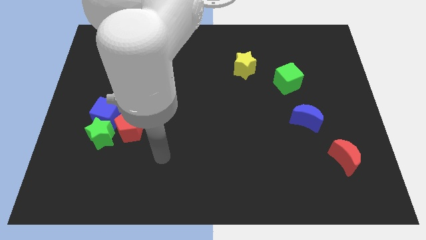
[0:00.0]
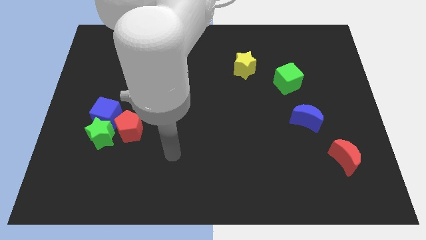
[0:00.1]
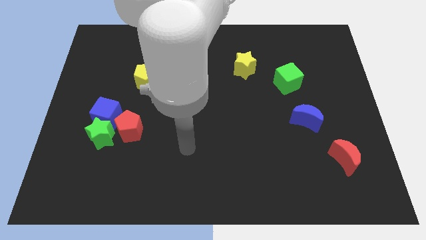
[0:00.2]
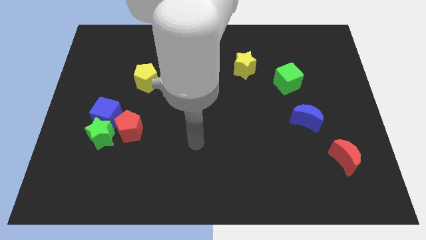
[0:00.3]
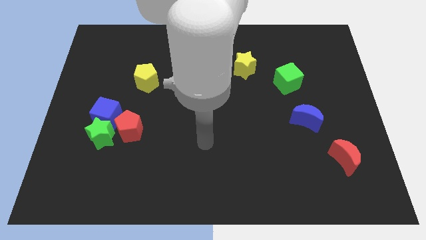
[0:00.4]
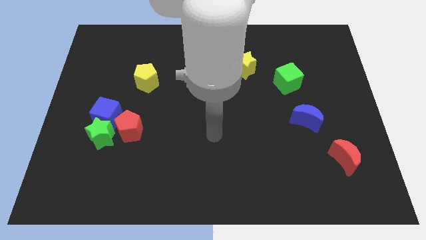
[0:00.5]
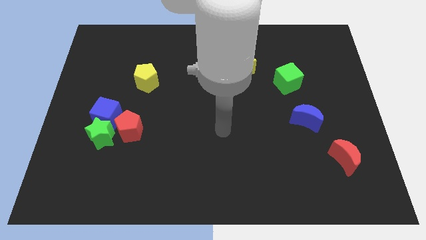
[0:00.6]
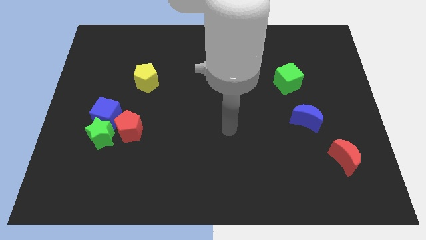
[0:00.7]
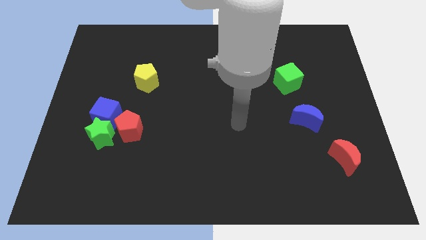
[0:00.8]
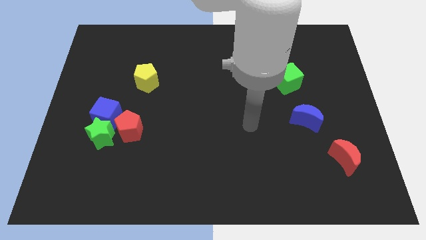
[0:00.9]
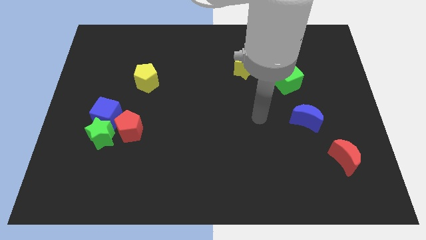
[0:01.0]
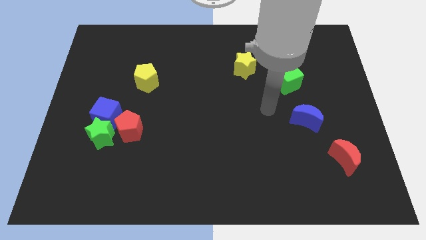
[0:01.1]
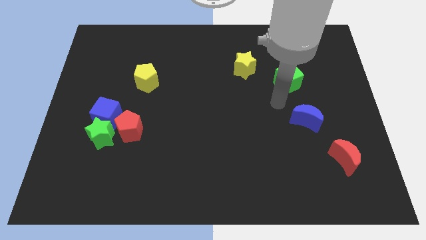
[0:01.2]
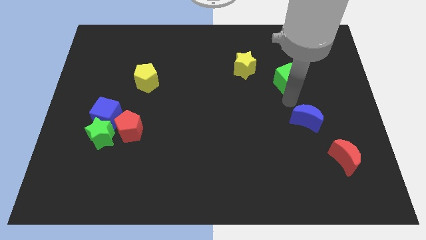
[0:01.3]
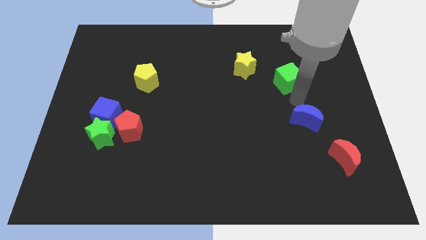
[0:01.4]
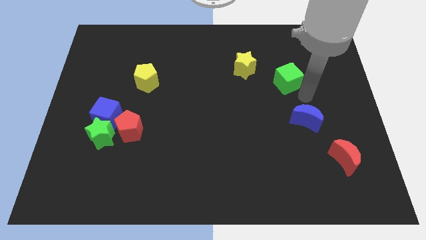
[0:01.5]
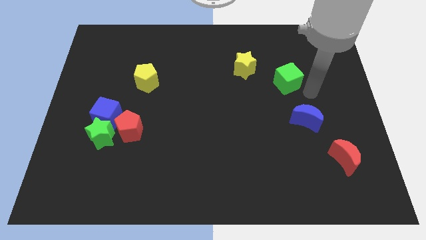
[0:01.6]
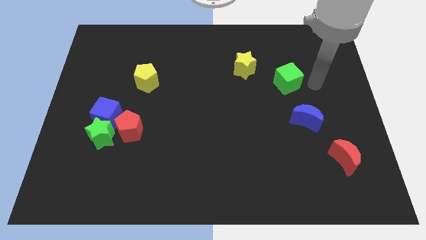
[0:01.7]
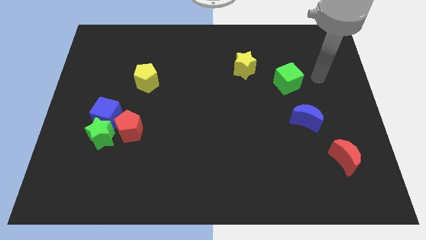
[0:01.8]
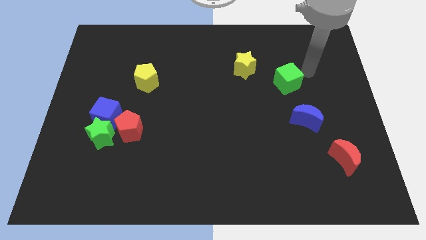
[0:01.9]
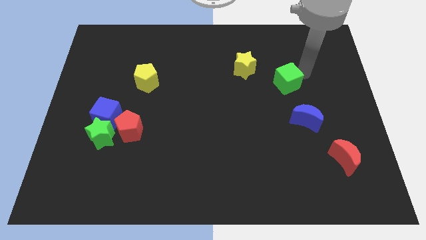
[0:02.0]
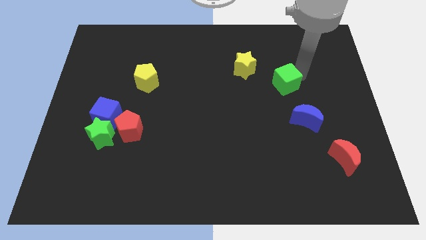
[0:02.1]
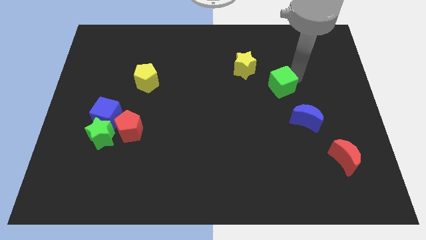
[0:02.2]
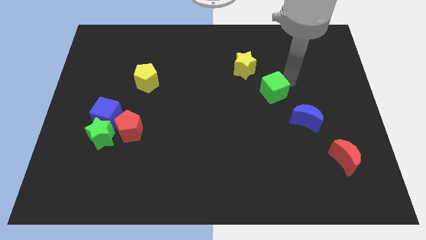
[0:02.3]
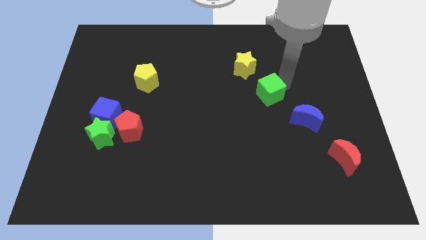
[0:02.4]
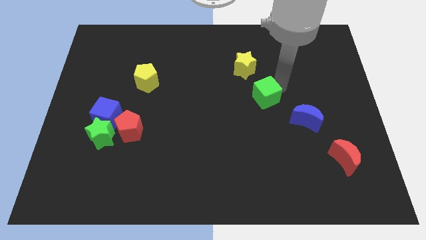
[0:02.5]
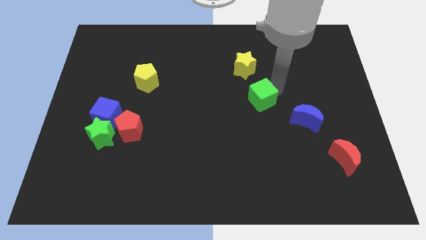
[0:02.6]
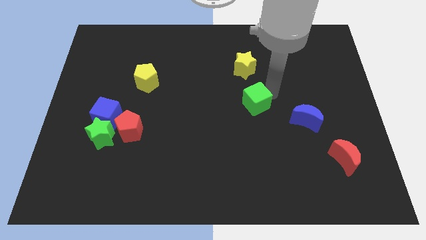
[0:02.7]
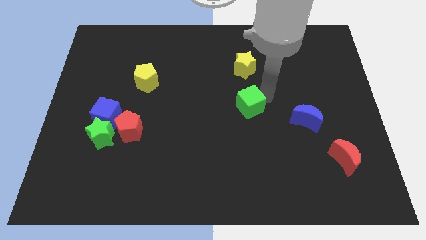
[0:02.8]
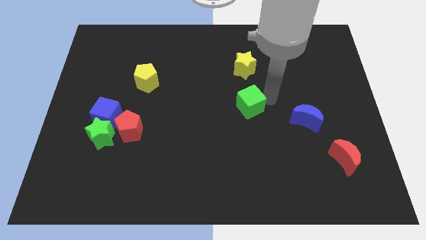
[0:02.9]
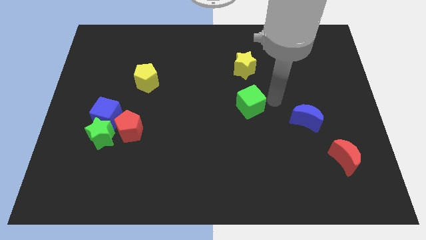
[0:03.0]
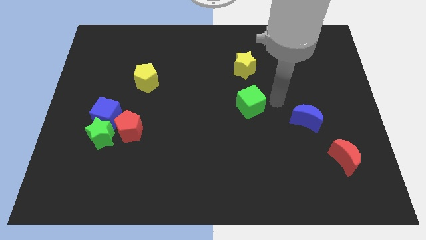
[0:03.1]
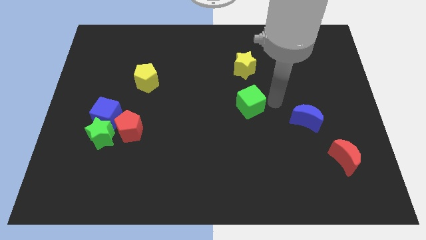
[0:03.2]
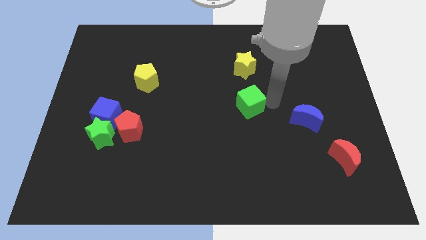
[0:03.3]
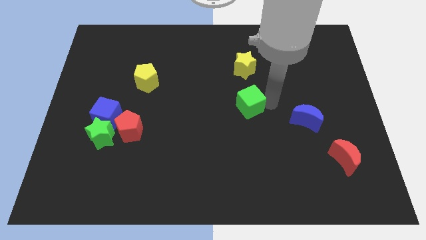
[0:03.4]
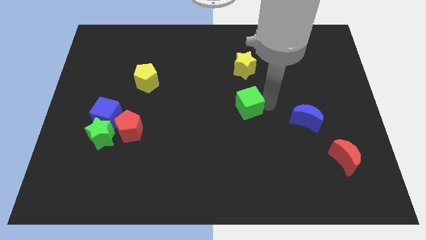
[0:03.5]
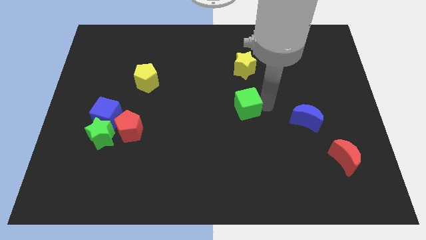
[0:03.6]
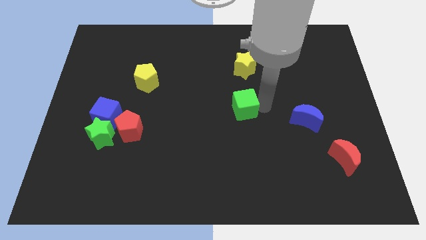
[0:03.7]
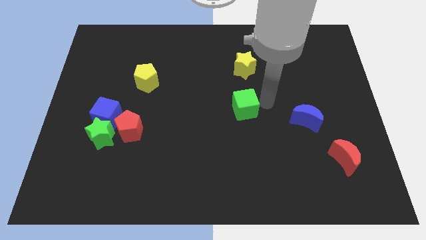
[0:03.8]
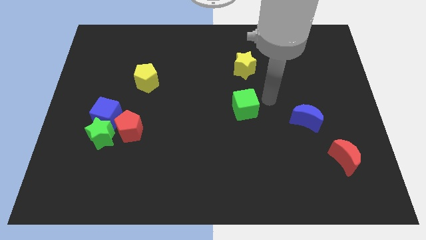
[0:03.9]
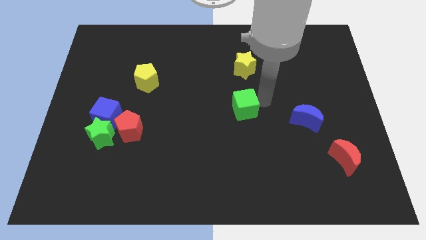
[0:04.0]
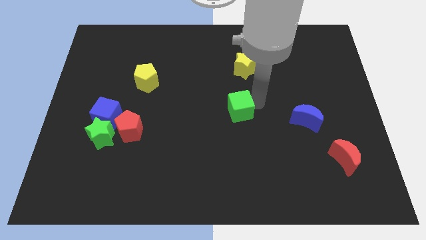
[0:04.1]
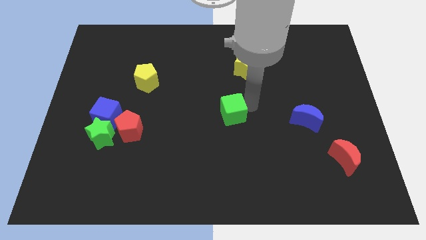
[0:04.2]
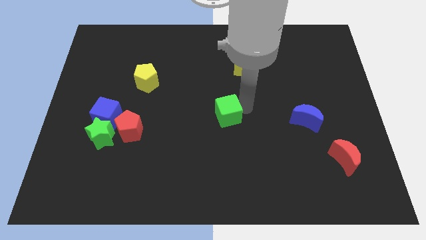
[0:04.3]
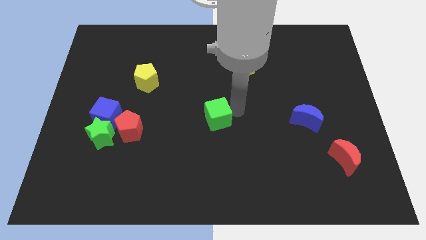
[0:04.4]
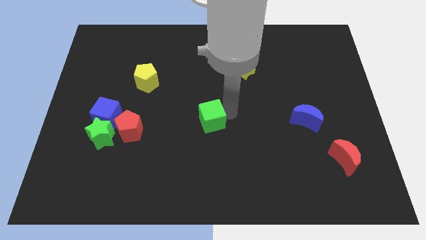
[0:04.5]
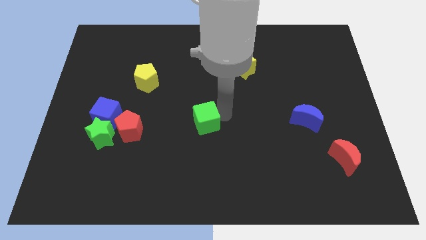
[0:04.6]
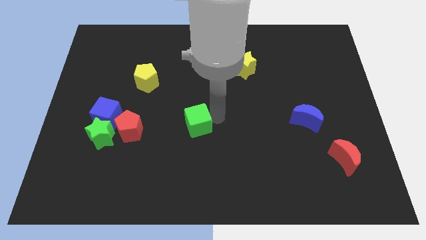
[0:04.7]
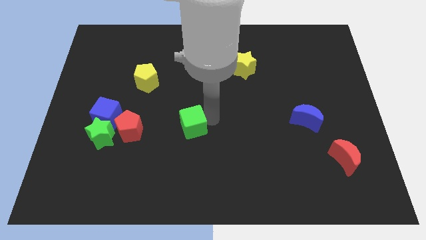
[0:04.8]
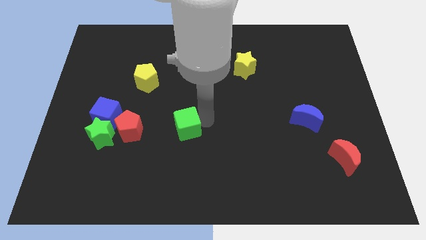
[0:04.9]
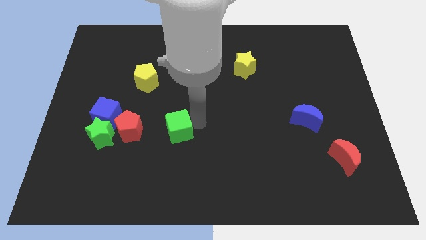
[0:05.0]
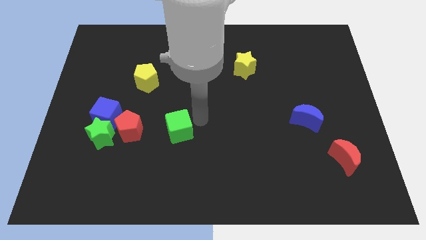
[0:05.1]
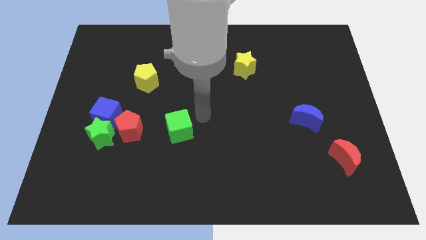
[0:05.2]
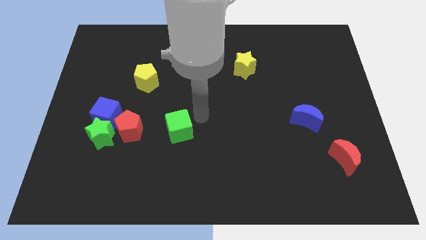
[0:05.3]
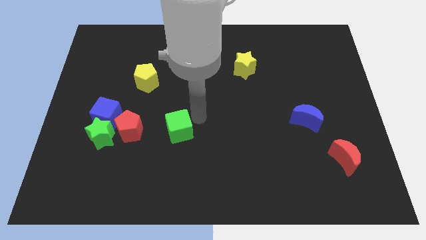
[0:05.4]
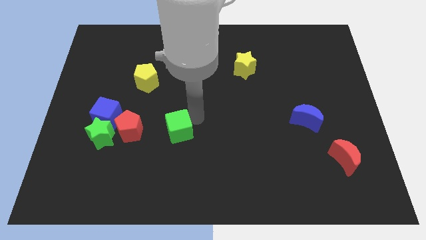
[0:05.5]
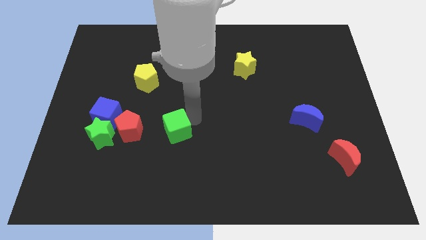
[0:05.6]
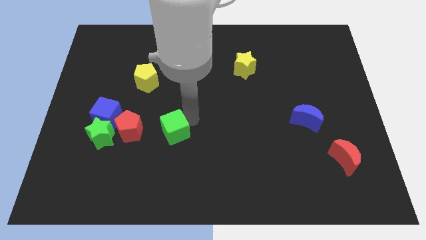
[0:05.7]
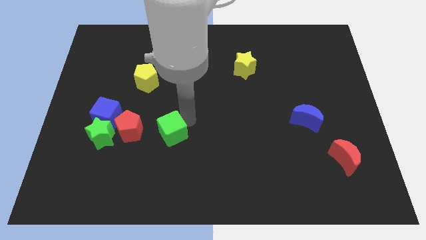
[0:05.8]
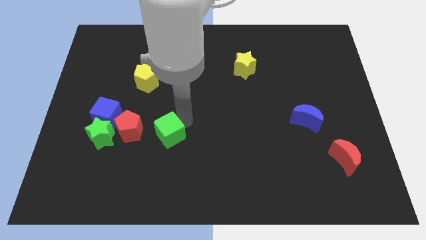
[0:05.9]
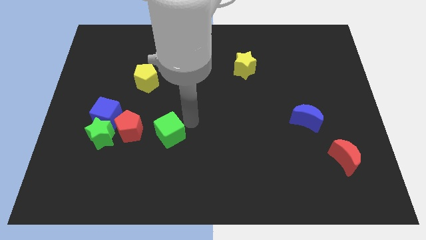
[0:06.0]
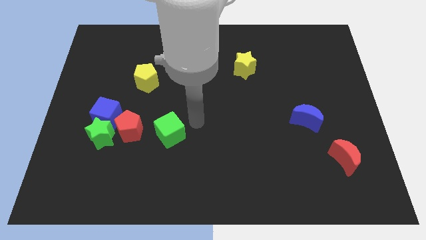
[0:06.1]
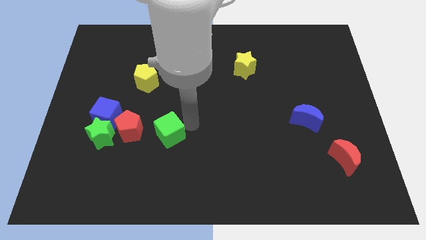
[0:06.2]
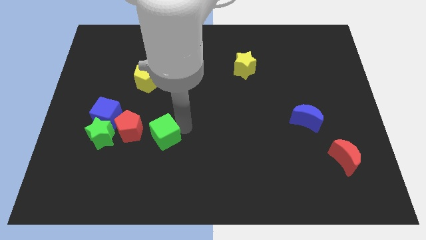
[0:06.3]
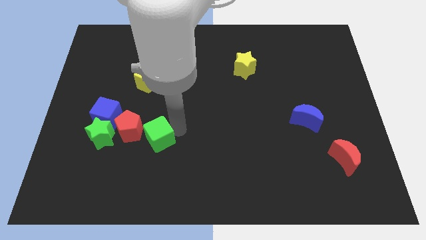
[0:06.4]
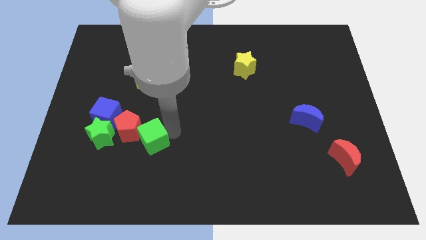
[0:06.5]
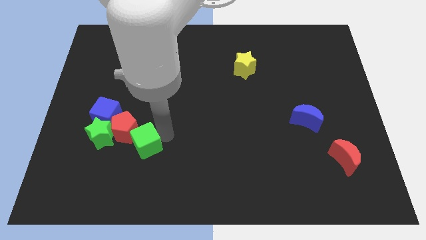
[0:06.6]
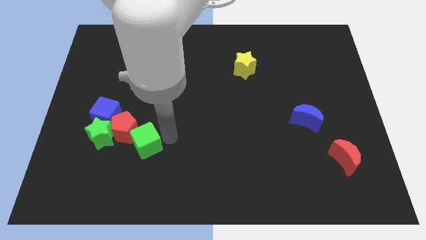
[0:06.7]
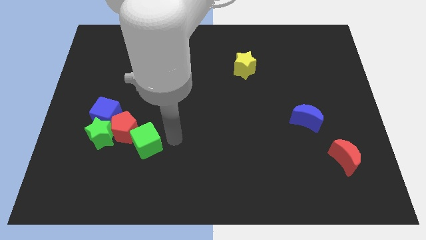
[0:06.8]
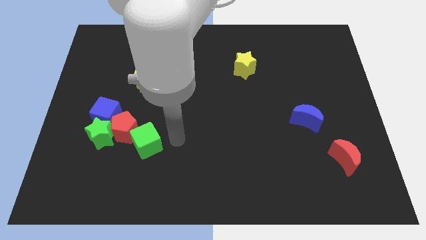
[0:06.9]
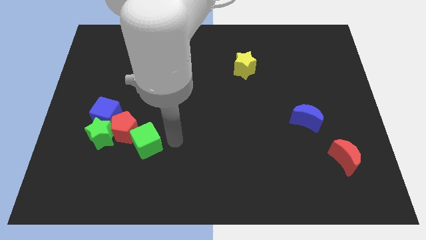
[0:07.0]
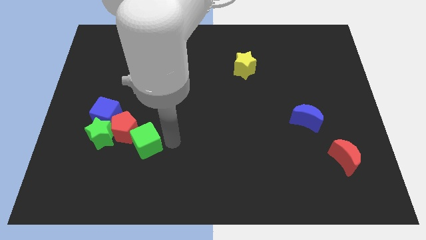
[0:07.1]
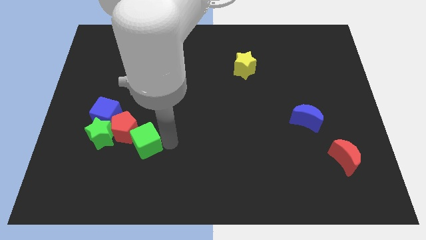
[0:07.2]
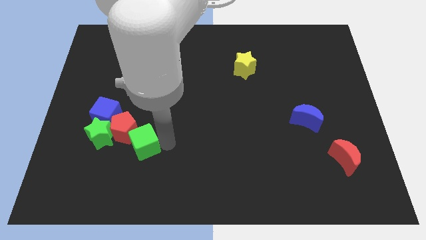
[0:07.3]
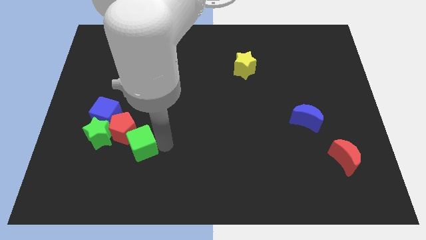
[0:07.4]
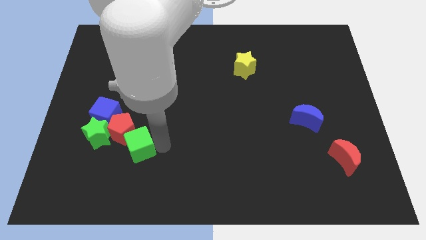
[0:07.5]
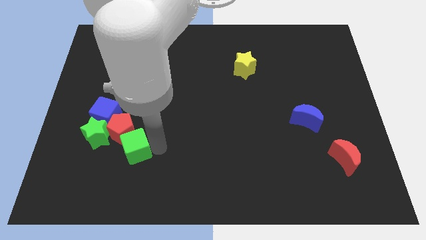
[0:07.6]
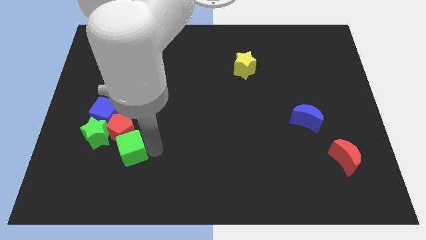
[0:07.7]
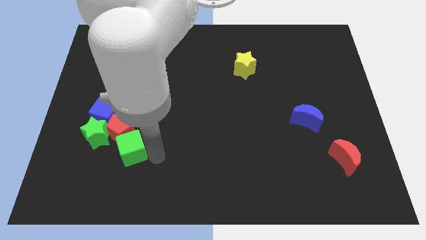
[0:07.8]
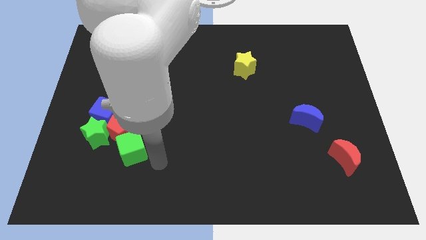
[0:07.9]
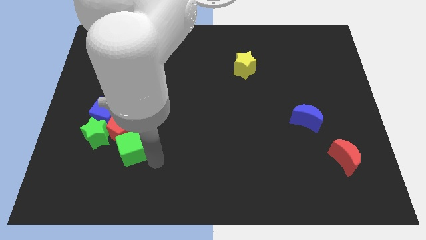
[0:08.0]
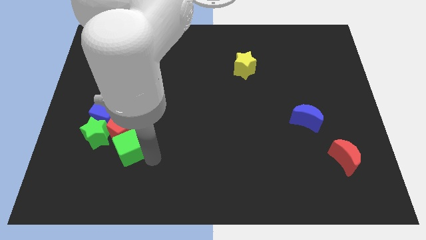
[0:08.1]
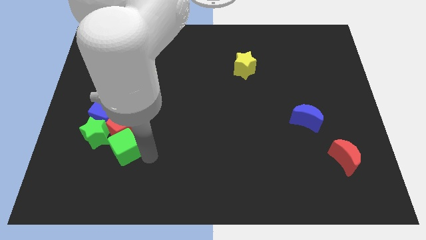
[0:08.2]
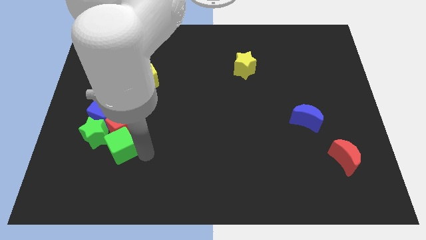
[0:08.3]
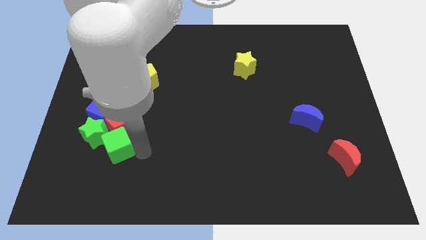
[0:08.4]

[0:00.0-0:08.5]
slide the green cube to the green star
